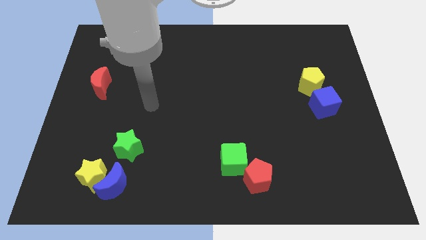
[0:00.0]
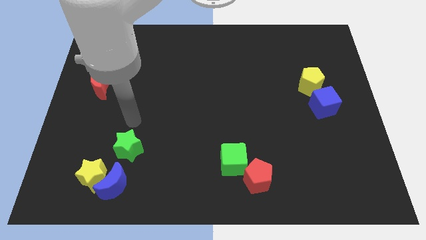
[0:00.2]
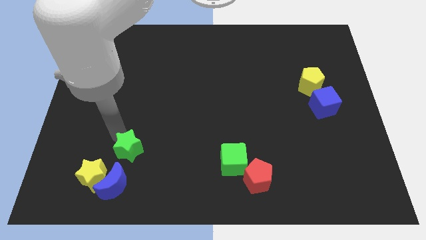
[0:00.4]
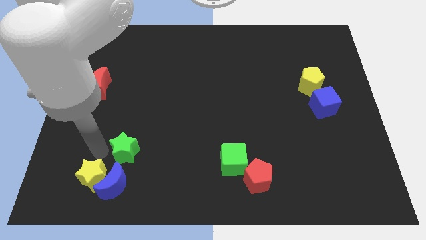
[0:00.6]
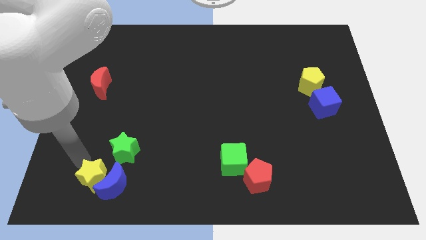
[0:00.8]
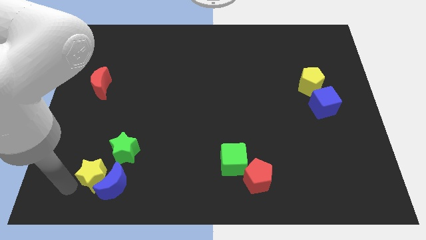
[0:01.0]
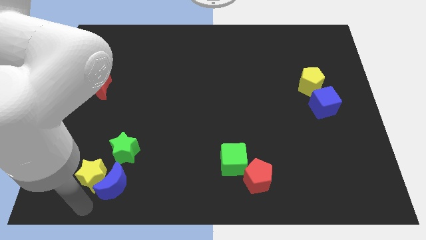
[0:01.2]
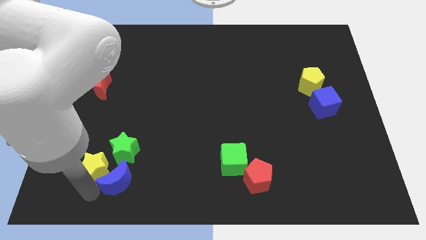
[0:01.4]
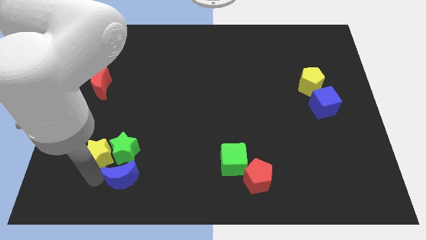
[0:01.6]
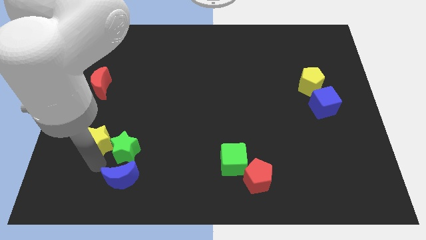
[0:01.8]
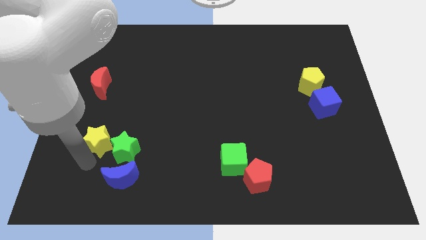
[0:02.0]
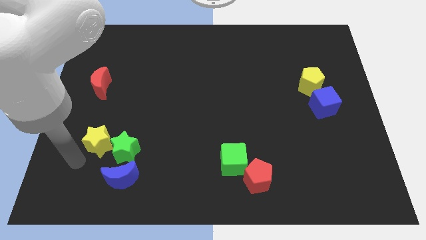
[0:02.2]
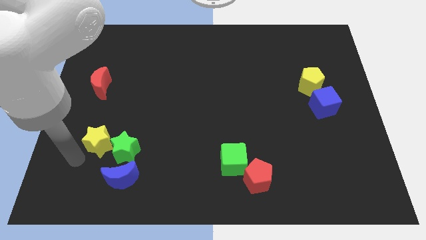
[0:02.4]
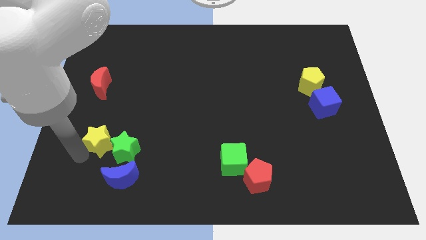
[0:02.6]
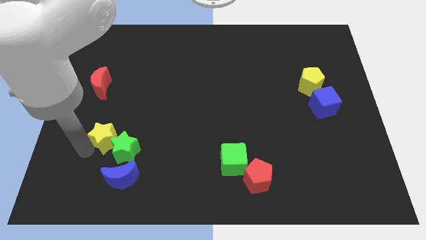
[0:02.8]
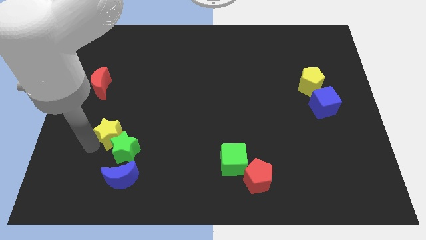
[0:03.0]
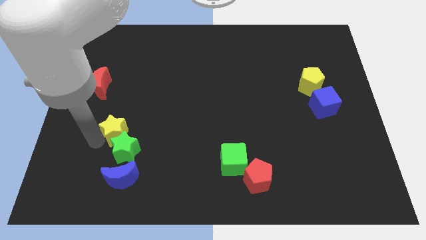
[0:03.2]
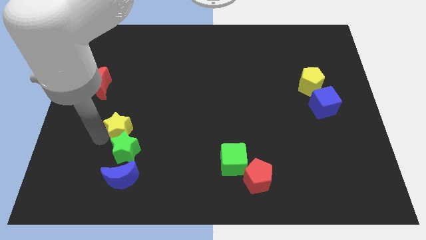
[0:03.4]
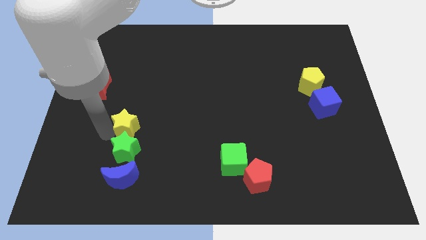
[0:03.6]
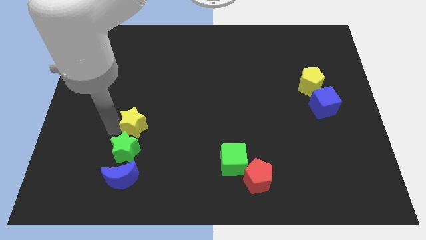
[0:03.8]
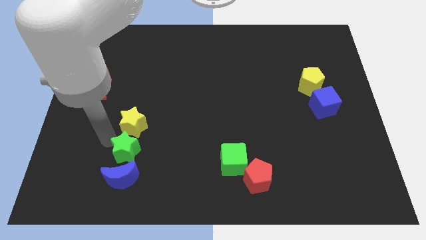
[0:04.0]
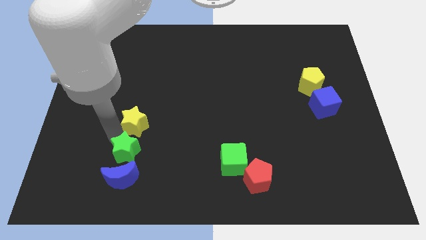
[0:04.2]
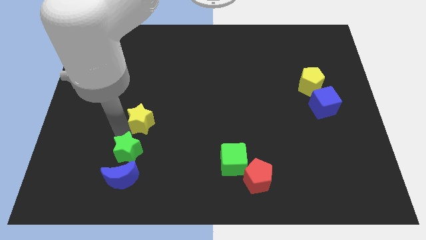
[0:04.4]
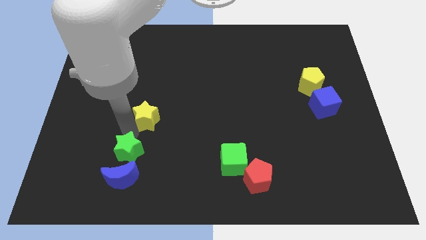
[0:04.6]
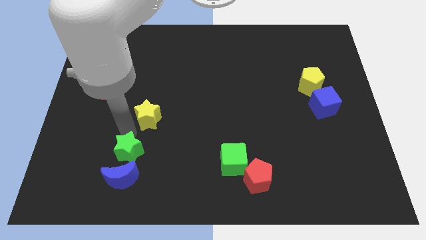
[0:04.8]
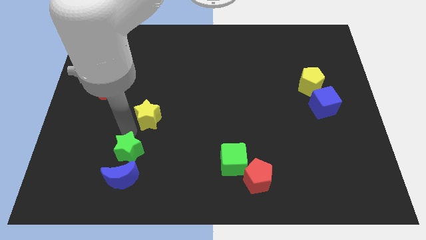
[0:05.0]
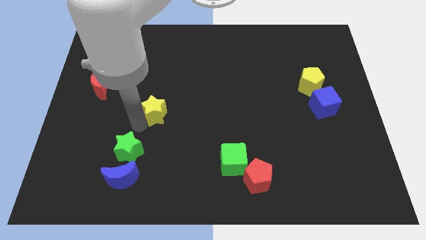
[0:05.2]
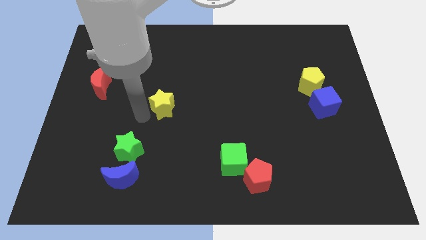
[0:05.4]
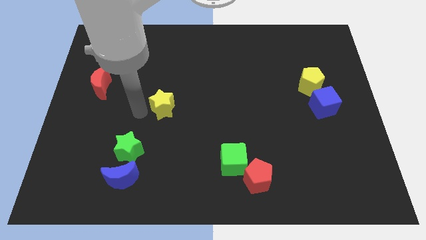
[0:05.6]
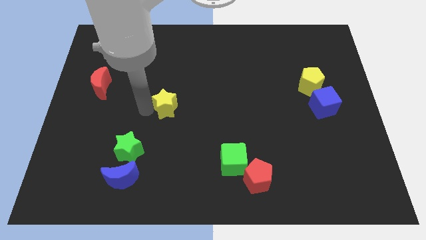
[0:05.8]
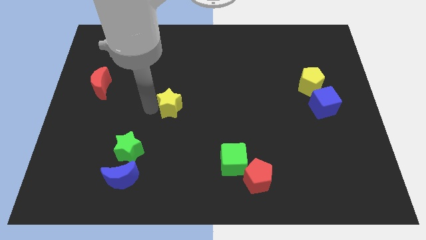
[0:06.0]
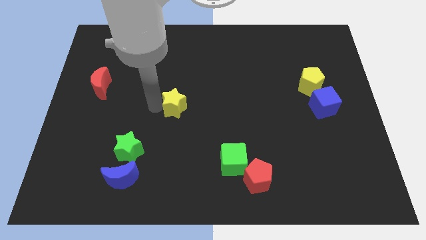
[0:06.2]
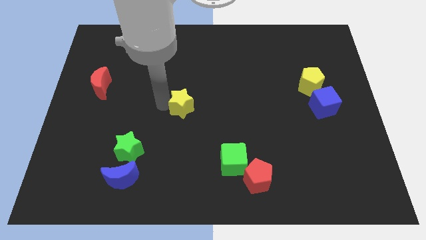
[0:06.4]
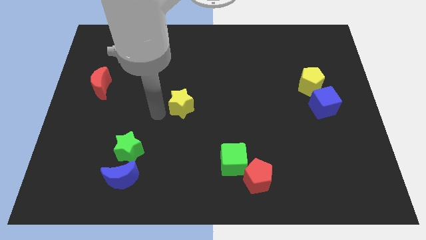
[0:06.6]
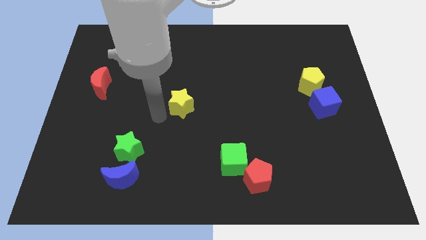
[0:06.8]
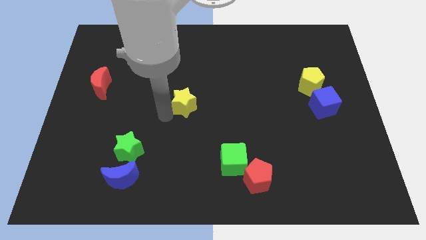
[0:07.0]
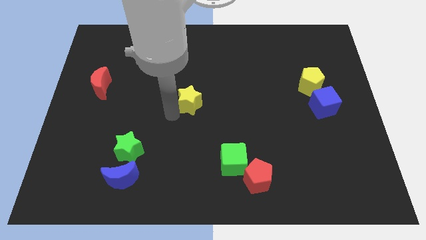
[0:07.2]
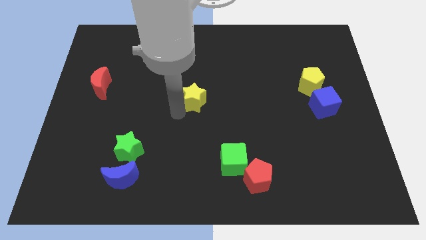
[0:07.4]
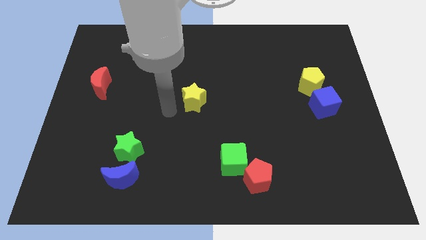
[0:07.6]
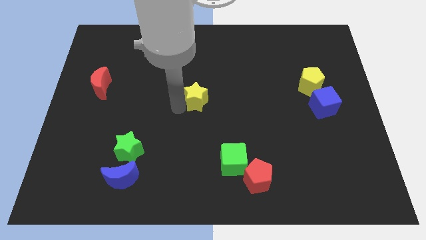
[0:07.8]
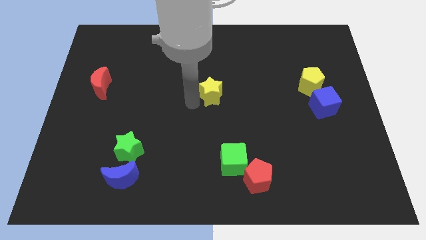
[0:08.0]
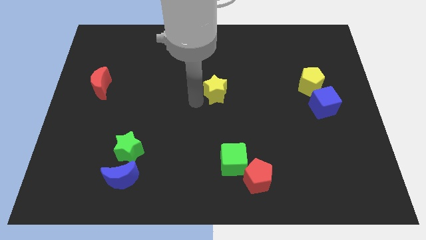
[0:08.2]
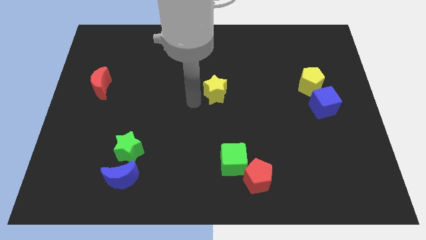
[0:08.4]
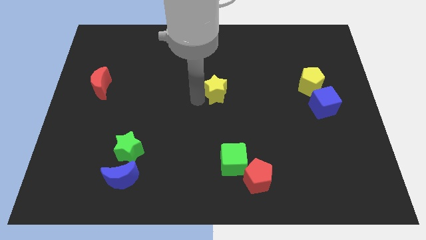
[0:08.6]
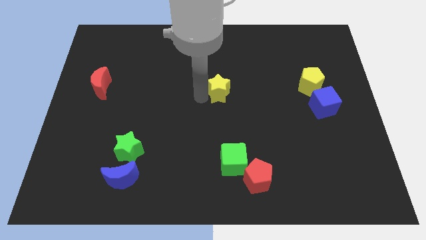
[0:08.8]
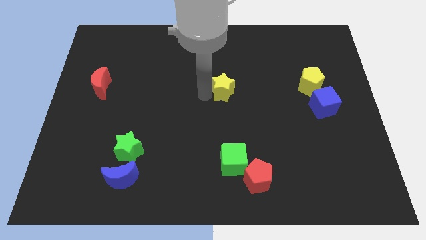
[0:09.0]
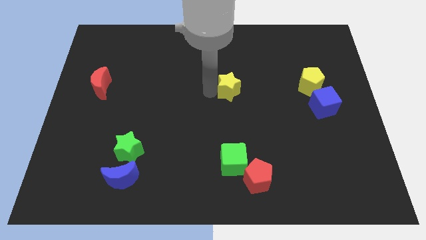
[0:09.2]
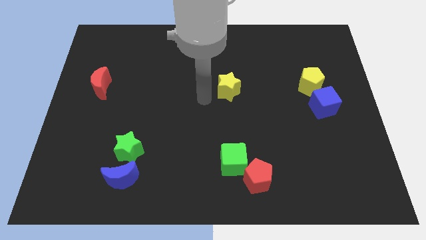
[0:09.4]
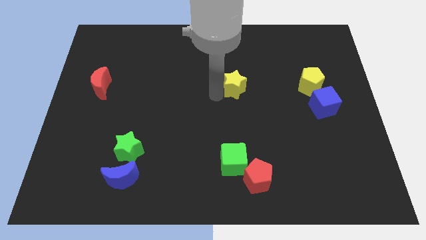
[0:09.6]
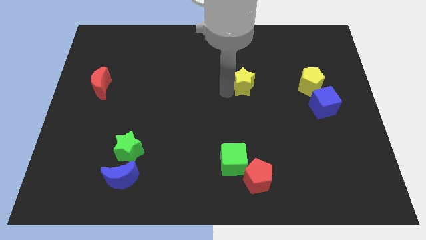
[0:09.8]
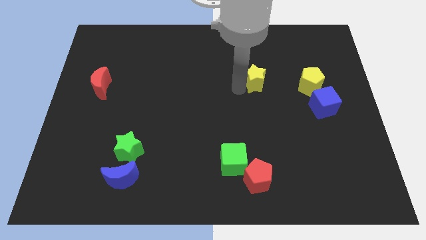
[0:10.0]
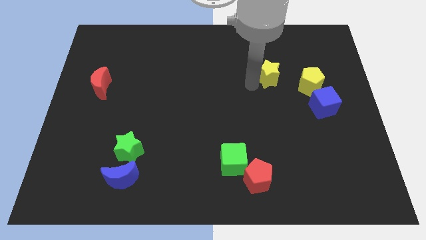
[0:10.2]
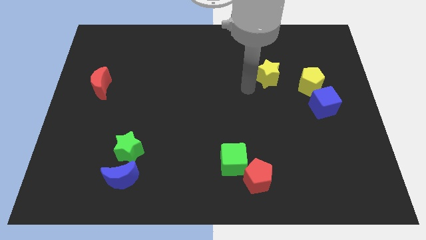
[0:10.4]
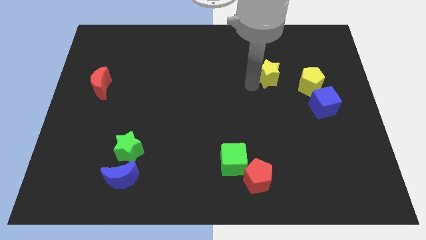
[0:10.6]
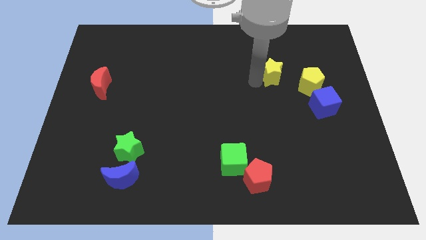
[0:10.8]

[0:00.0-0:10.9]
move the yellow star to the top left side of the yellow pentagon

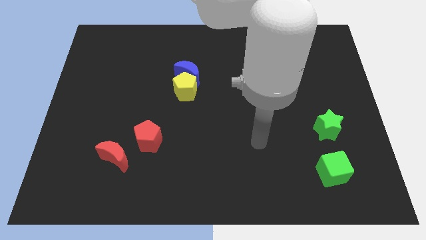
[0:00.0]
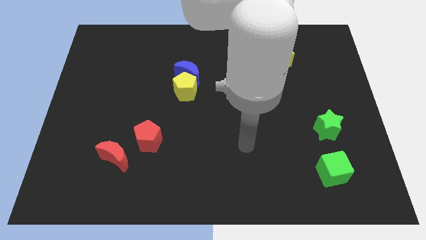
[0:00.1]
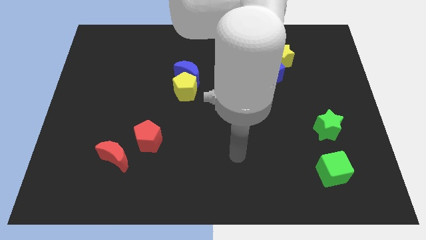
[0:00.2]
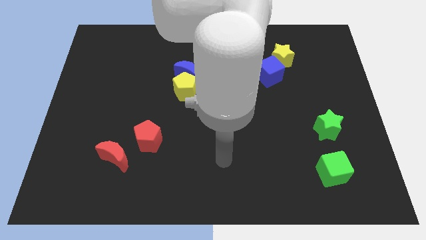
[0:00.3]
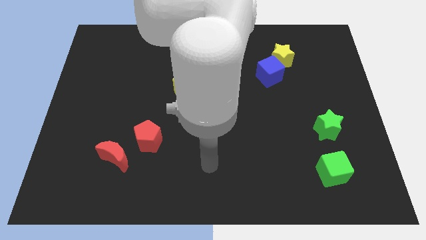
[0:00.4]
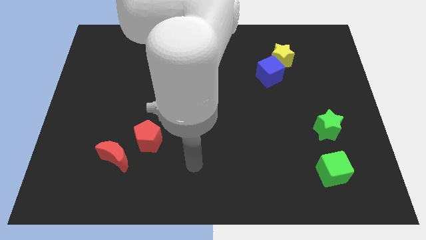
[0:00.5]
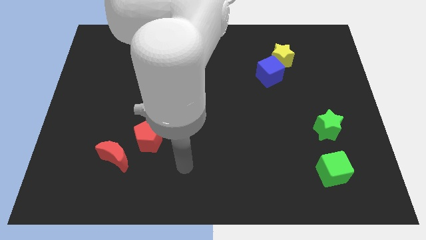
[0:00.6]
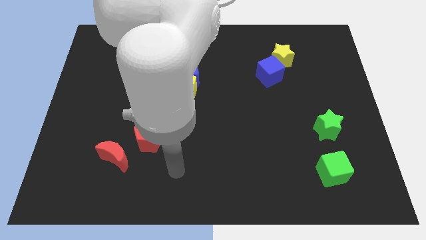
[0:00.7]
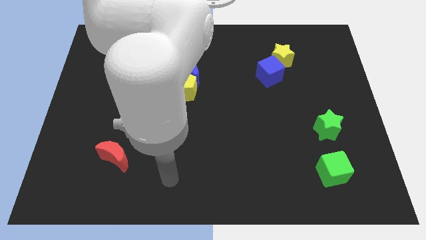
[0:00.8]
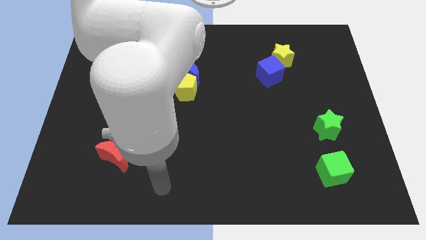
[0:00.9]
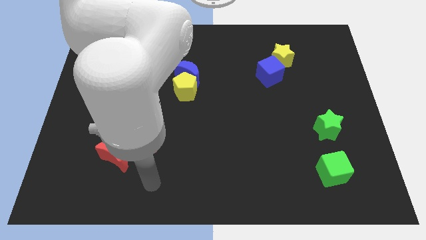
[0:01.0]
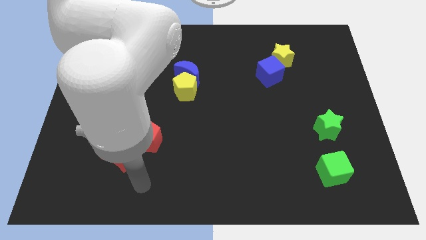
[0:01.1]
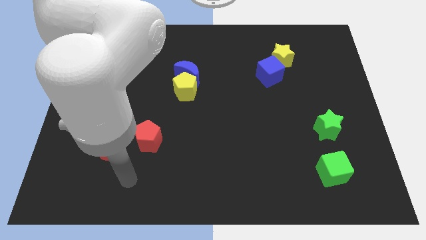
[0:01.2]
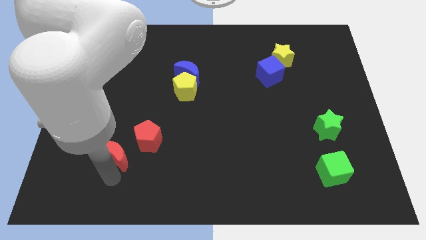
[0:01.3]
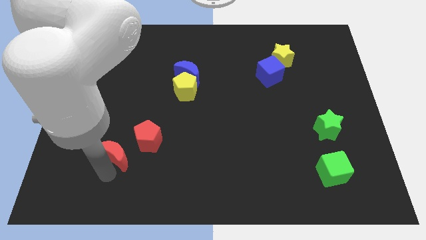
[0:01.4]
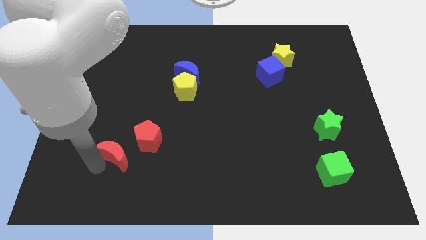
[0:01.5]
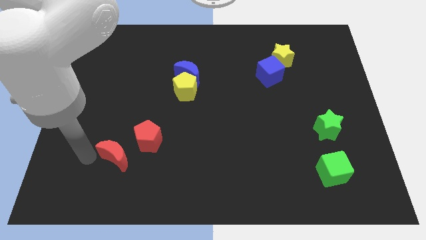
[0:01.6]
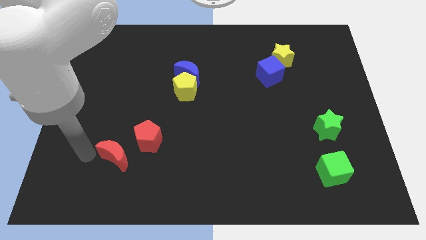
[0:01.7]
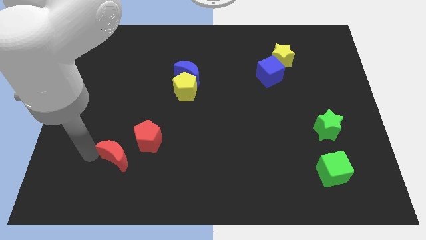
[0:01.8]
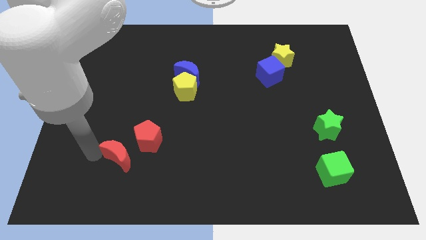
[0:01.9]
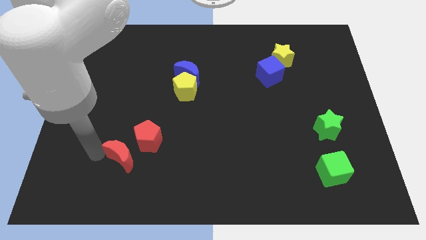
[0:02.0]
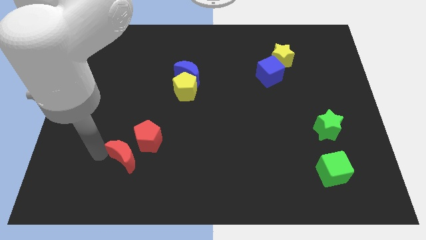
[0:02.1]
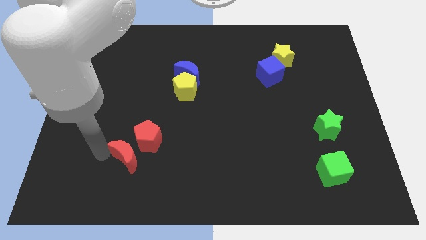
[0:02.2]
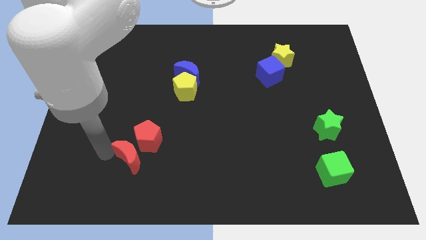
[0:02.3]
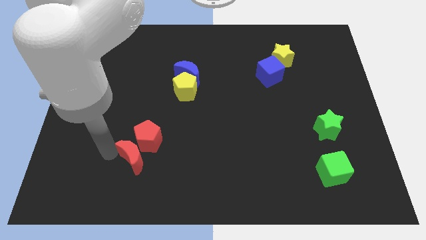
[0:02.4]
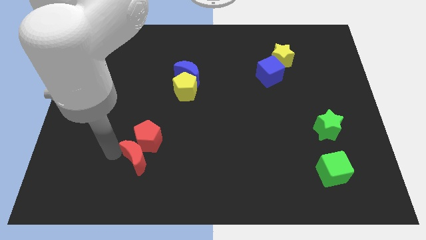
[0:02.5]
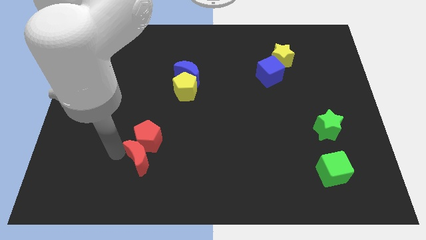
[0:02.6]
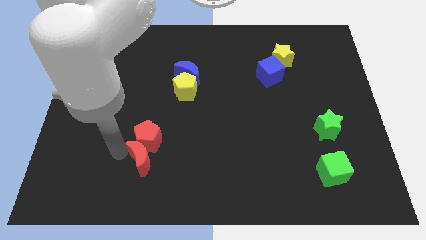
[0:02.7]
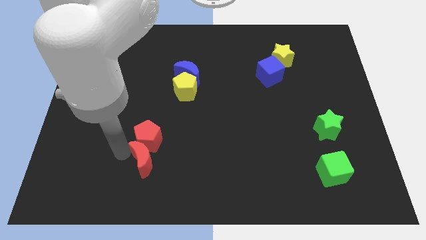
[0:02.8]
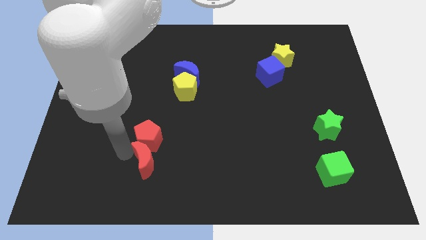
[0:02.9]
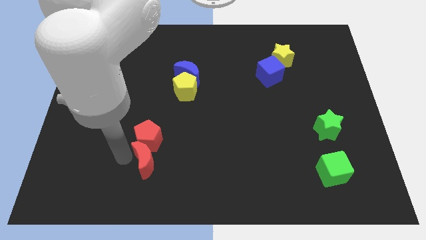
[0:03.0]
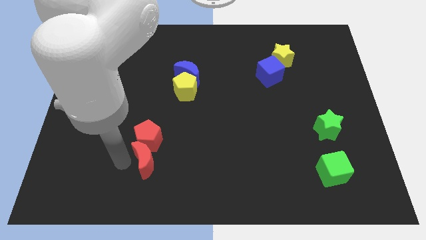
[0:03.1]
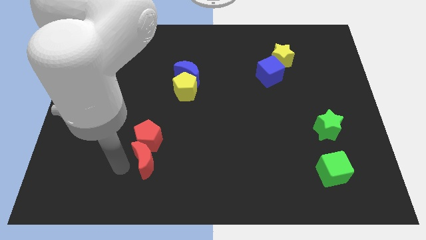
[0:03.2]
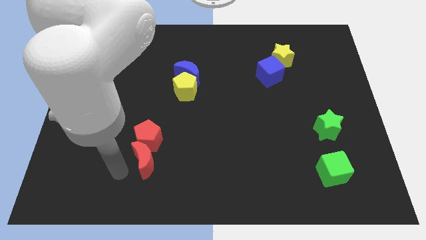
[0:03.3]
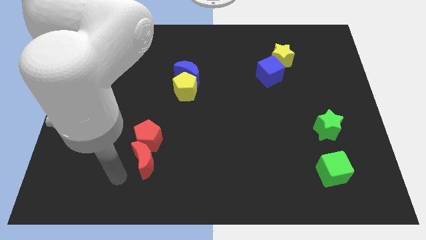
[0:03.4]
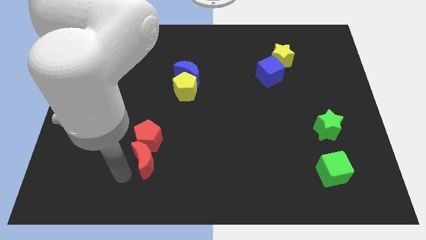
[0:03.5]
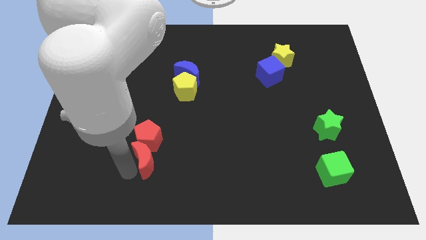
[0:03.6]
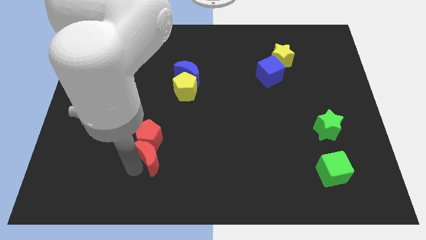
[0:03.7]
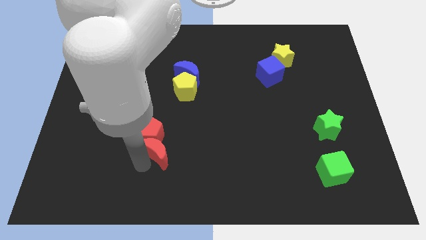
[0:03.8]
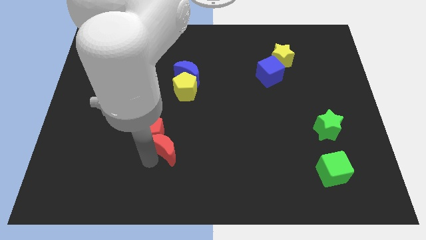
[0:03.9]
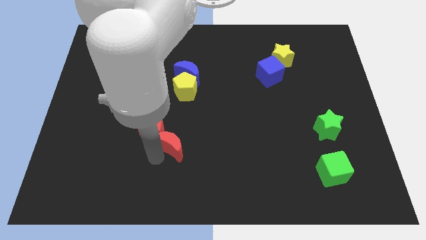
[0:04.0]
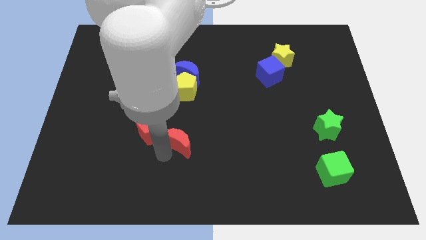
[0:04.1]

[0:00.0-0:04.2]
slide the red moon to the bottom of the yellow pentagon
